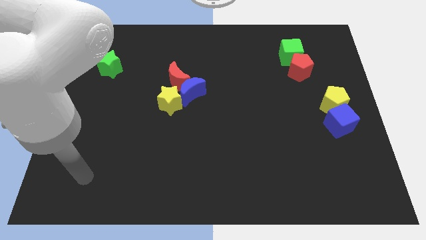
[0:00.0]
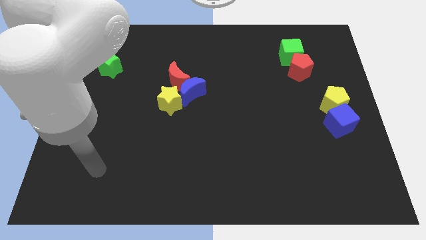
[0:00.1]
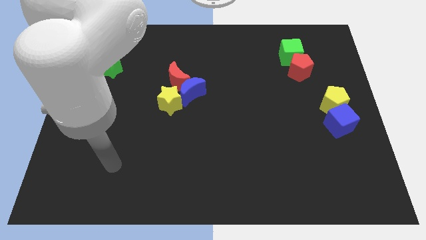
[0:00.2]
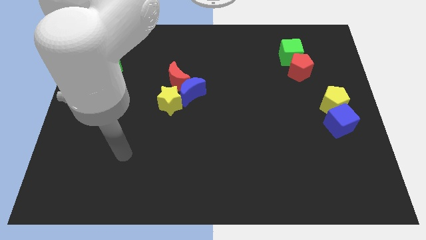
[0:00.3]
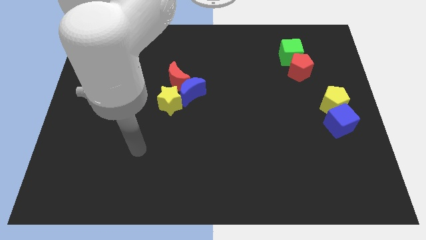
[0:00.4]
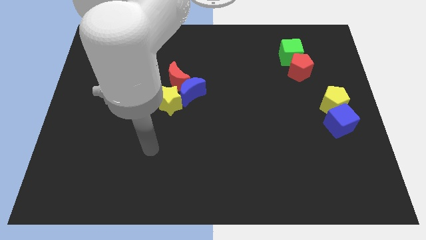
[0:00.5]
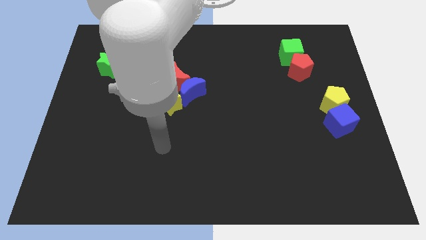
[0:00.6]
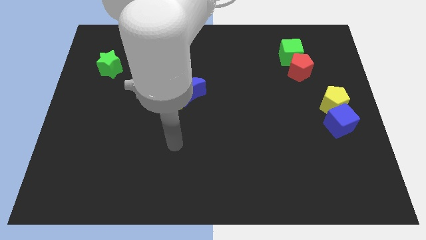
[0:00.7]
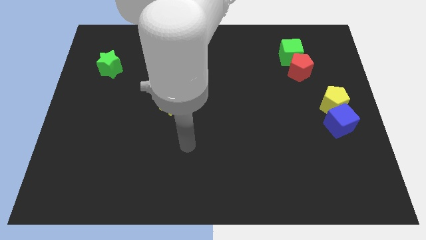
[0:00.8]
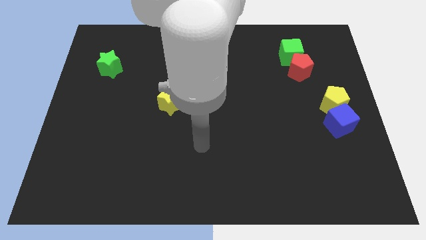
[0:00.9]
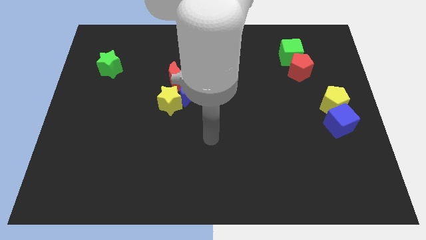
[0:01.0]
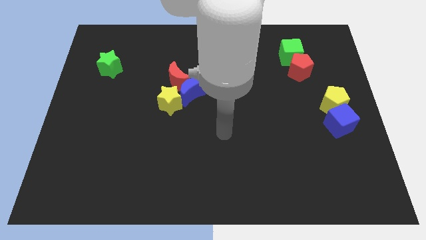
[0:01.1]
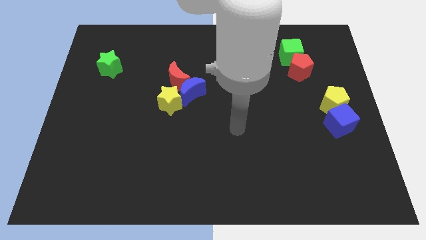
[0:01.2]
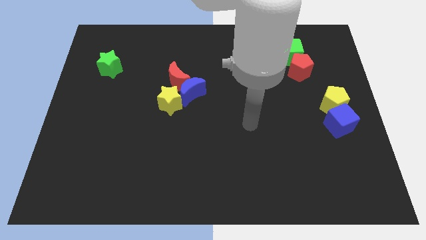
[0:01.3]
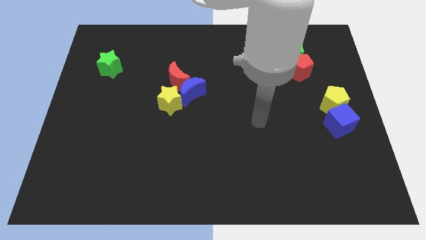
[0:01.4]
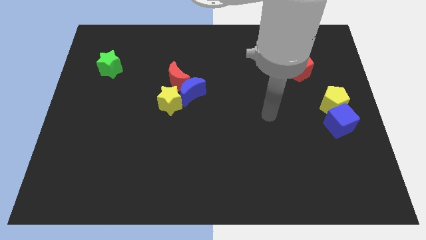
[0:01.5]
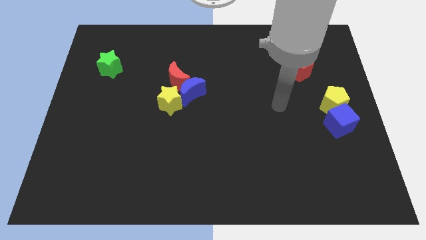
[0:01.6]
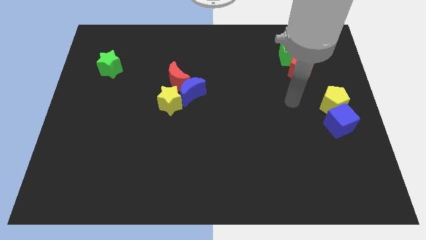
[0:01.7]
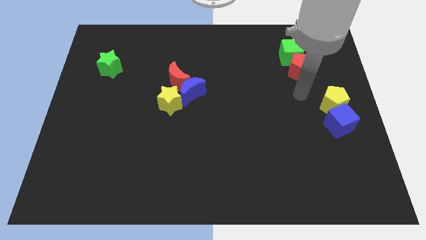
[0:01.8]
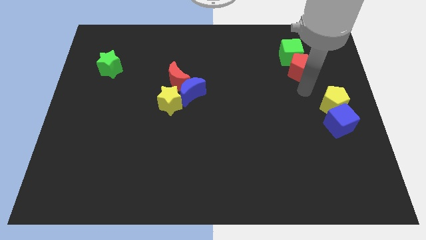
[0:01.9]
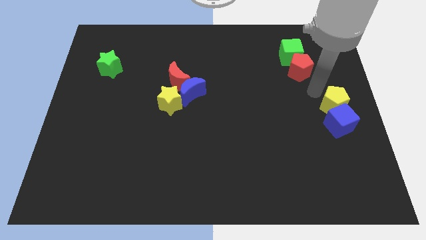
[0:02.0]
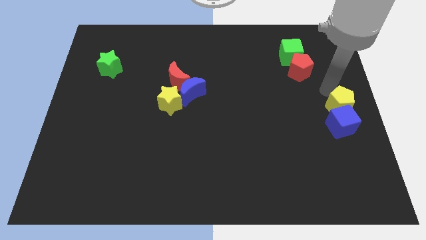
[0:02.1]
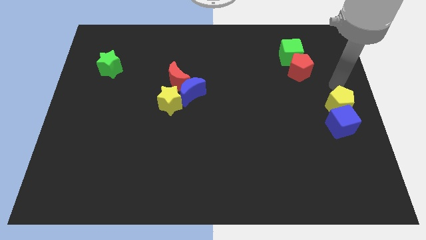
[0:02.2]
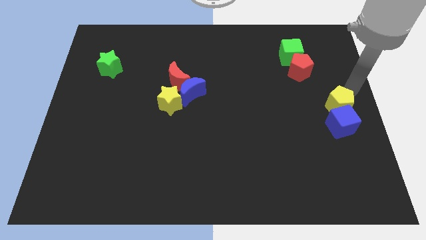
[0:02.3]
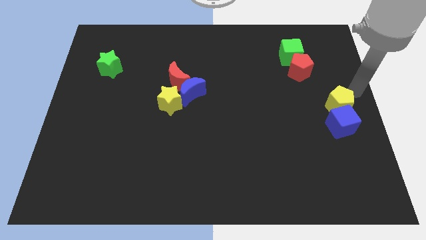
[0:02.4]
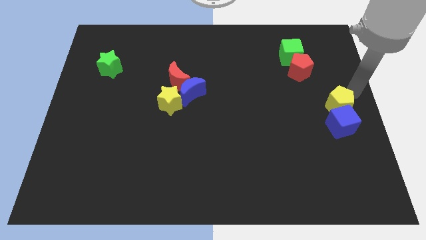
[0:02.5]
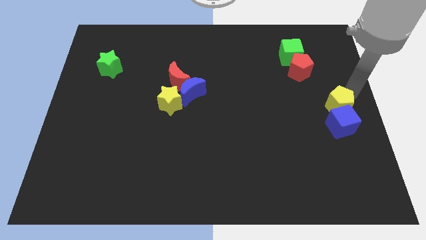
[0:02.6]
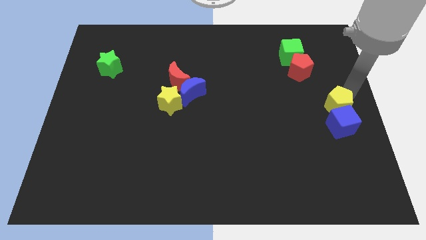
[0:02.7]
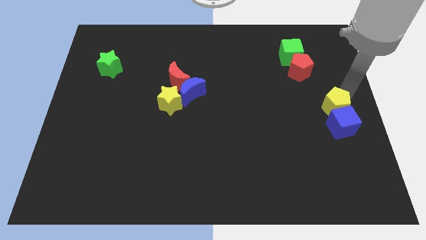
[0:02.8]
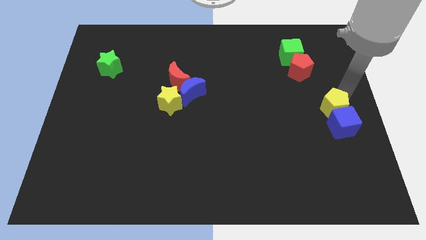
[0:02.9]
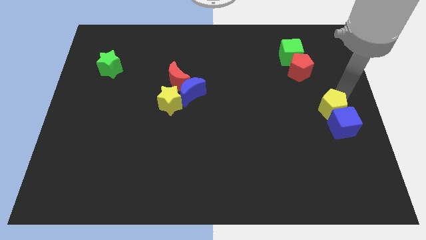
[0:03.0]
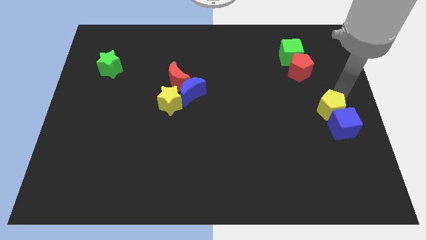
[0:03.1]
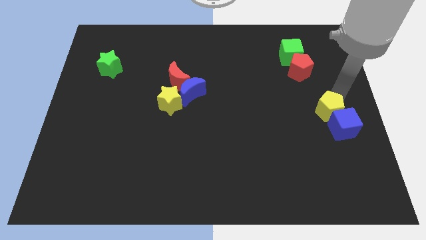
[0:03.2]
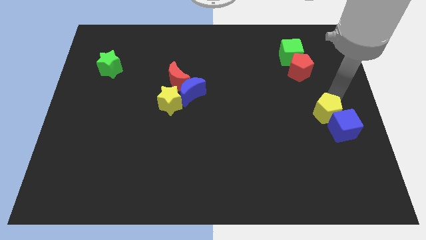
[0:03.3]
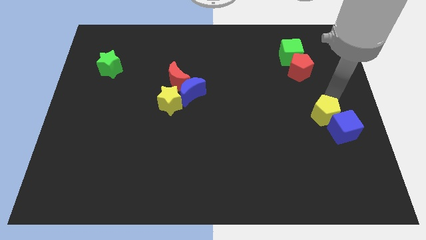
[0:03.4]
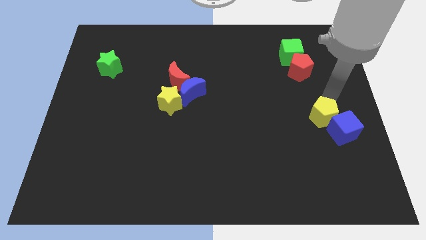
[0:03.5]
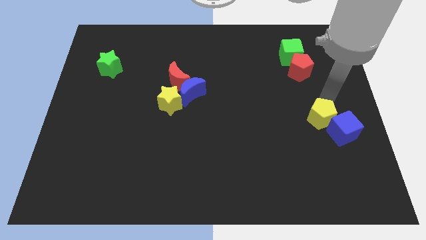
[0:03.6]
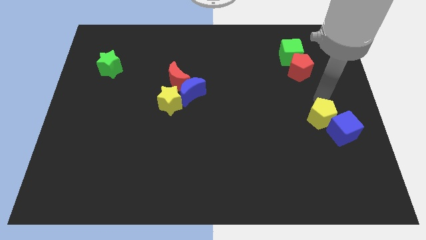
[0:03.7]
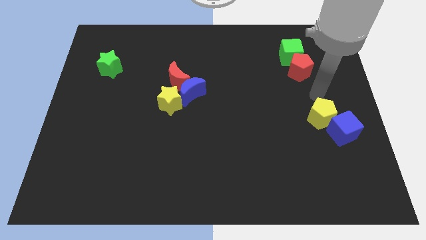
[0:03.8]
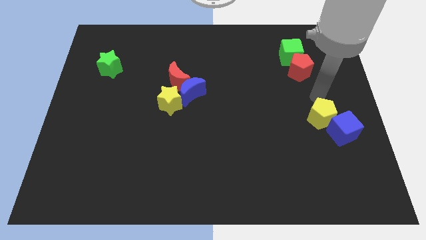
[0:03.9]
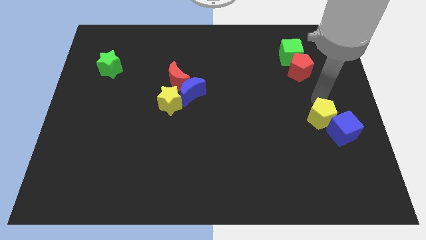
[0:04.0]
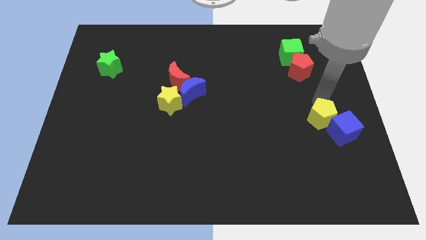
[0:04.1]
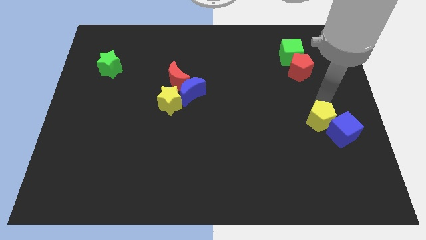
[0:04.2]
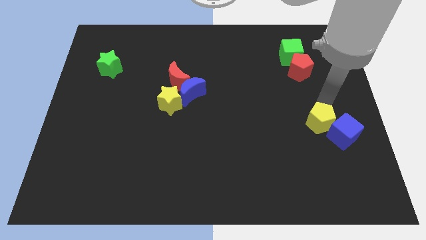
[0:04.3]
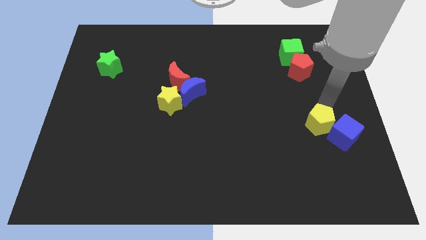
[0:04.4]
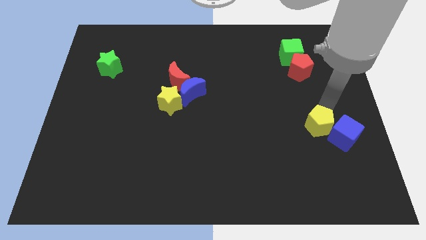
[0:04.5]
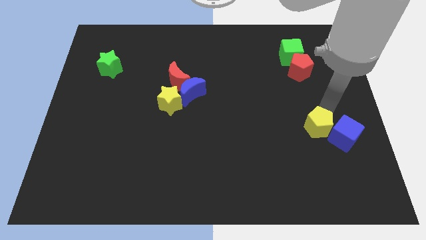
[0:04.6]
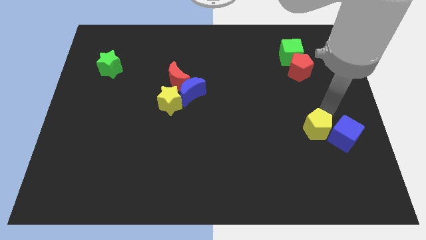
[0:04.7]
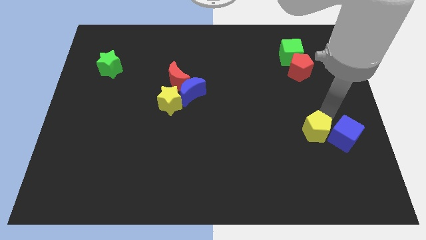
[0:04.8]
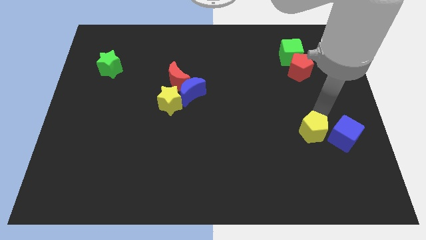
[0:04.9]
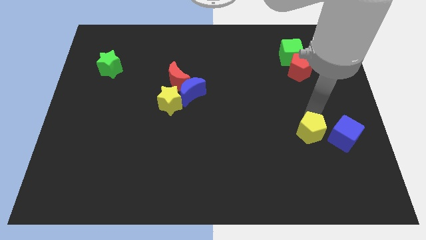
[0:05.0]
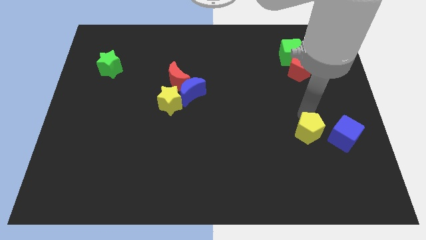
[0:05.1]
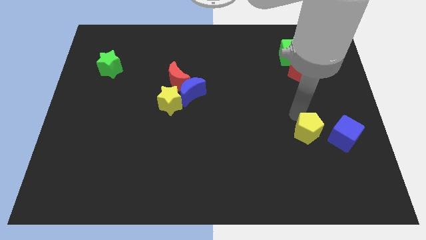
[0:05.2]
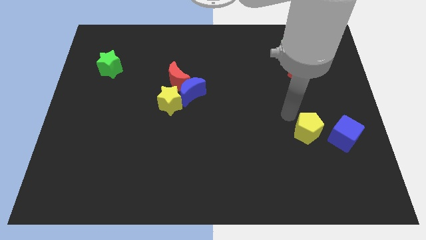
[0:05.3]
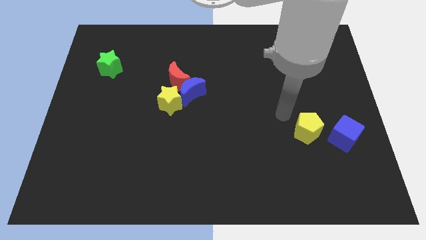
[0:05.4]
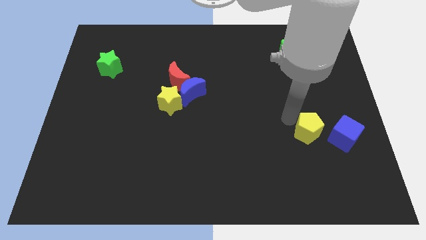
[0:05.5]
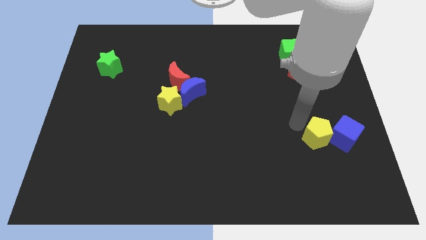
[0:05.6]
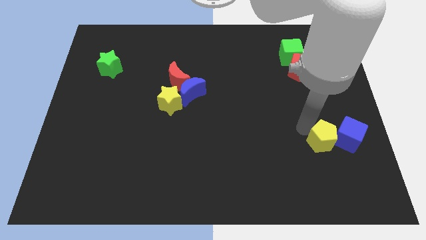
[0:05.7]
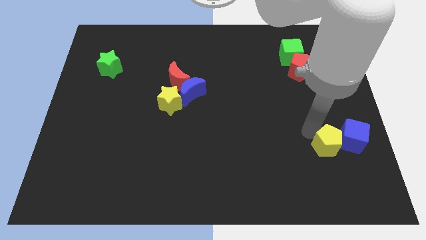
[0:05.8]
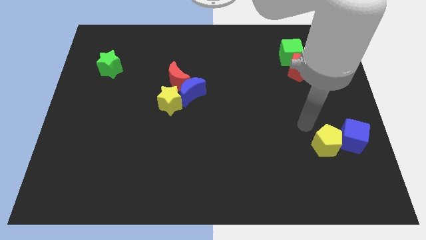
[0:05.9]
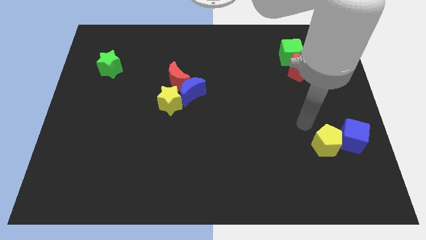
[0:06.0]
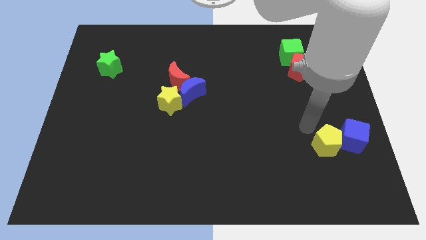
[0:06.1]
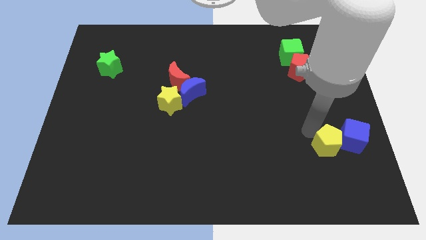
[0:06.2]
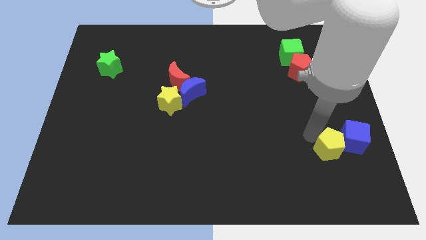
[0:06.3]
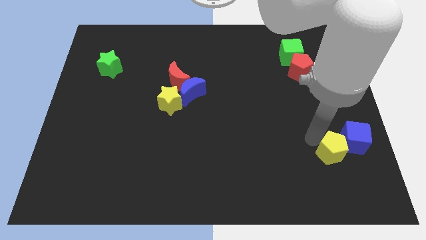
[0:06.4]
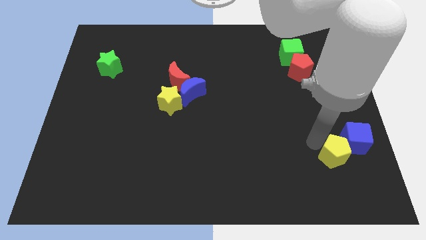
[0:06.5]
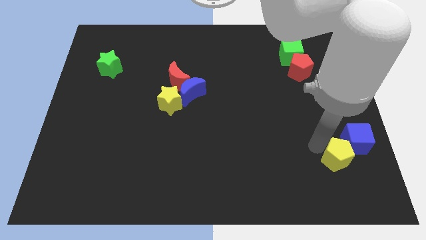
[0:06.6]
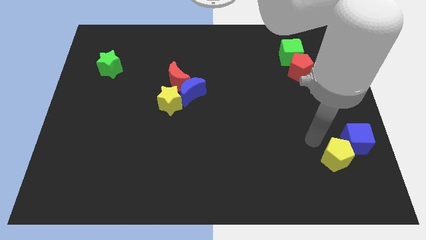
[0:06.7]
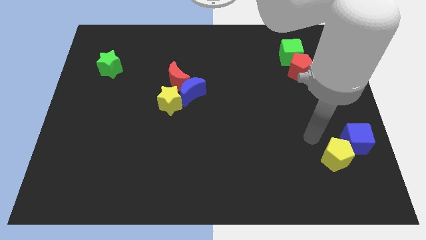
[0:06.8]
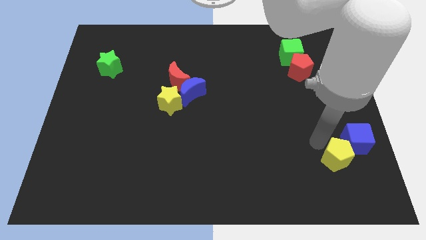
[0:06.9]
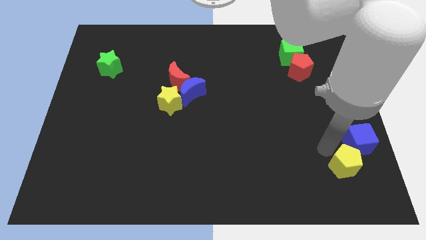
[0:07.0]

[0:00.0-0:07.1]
push the yellow pentagon below the blue cube

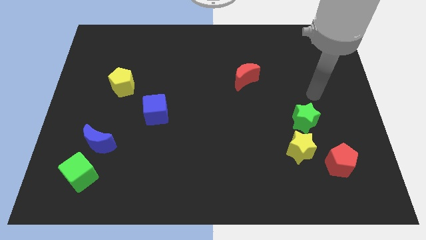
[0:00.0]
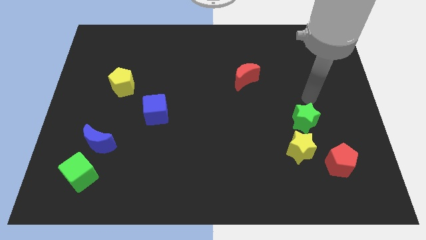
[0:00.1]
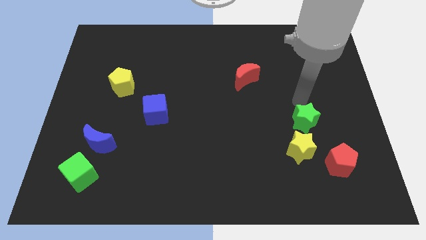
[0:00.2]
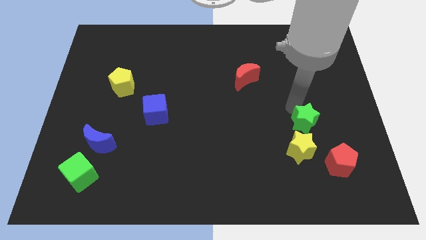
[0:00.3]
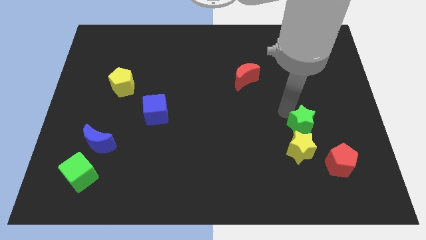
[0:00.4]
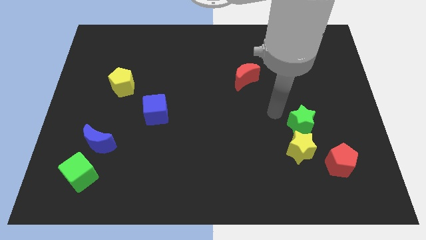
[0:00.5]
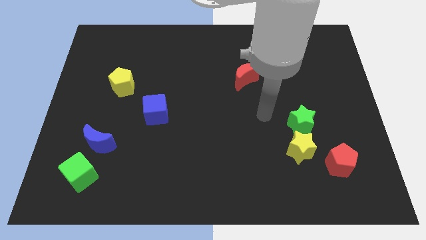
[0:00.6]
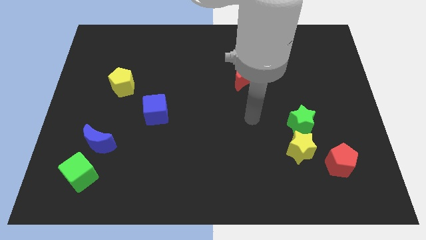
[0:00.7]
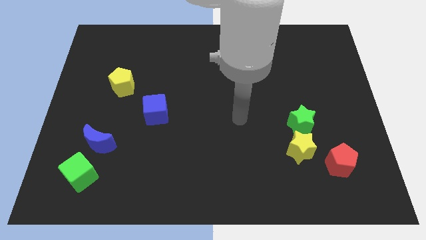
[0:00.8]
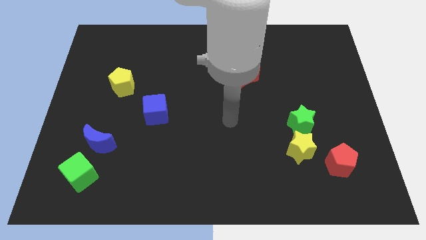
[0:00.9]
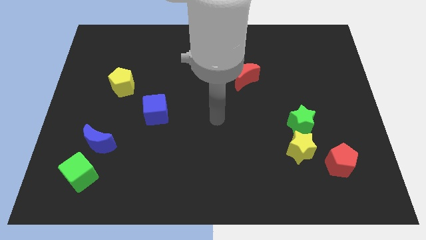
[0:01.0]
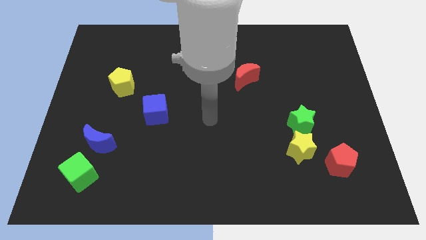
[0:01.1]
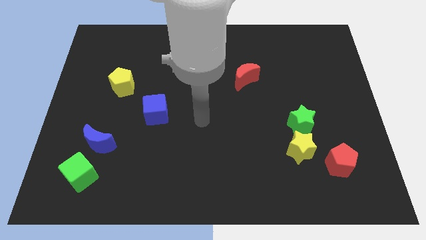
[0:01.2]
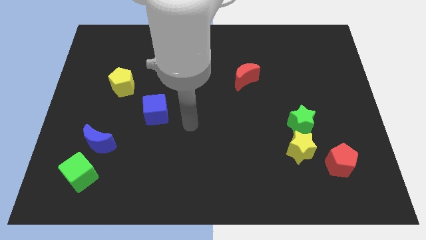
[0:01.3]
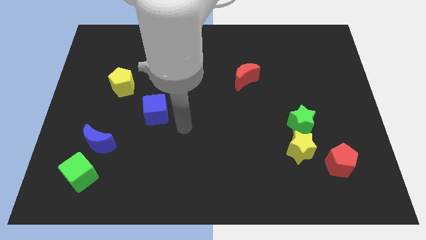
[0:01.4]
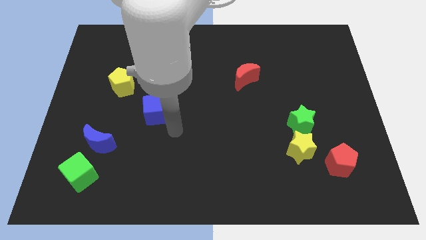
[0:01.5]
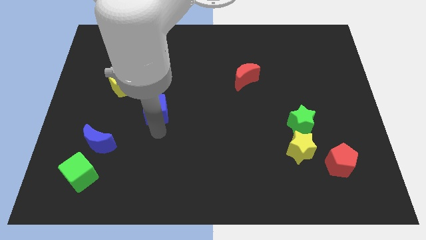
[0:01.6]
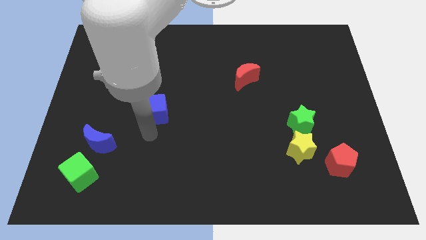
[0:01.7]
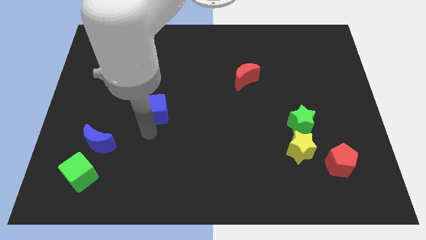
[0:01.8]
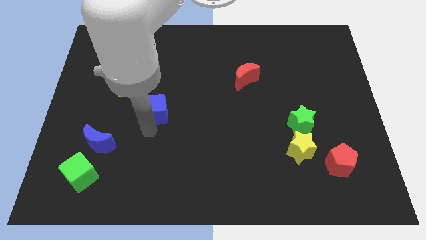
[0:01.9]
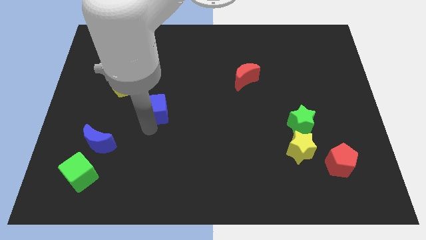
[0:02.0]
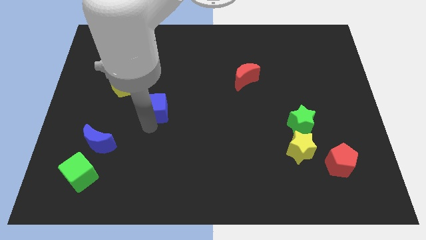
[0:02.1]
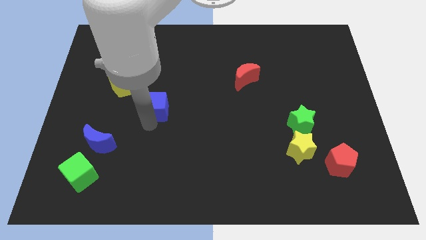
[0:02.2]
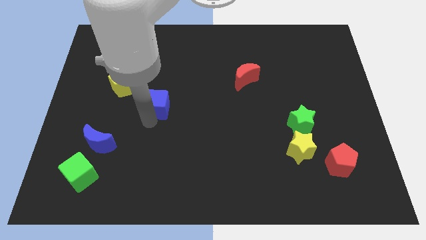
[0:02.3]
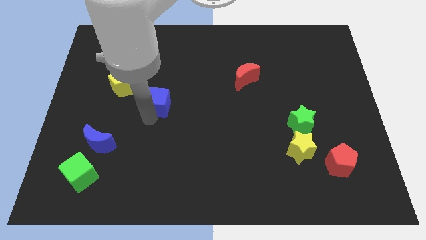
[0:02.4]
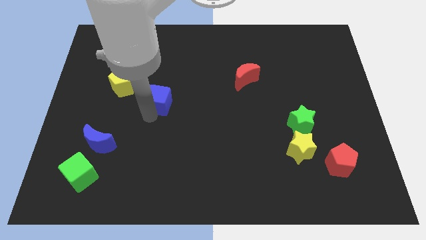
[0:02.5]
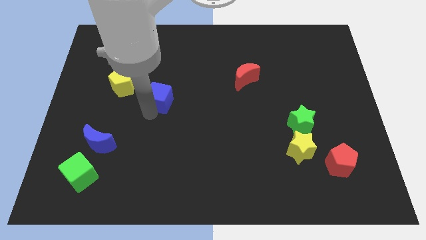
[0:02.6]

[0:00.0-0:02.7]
slide the blue cube to the right of the yellow pentagon
